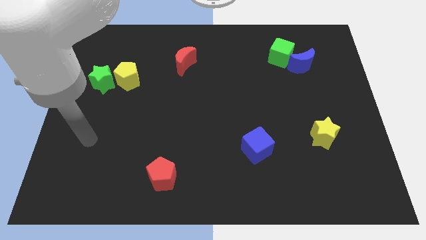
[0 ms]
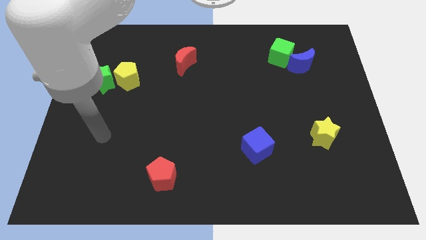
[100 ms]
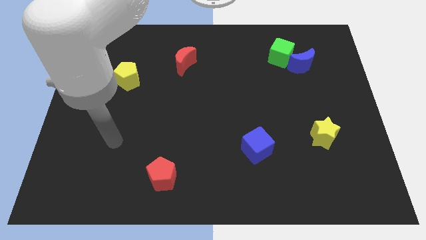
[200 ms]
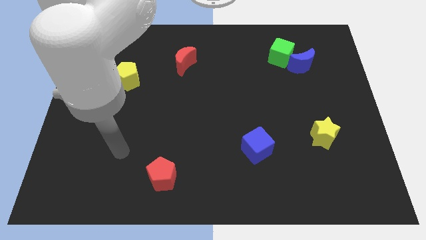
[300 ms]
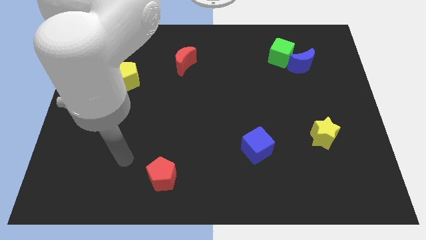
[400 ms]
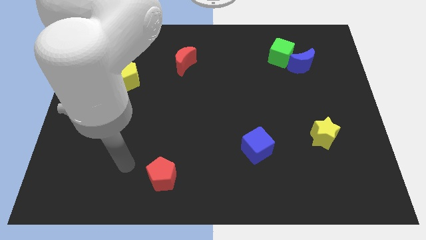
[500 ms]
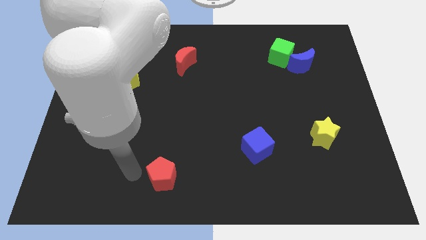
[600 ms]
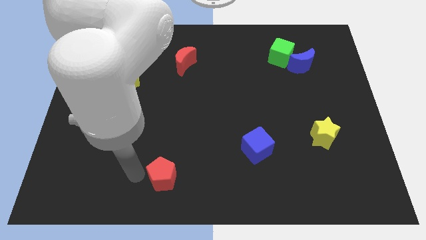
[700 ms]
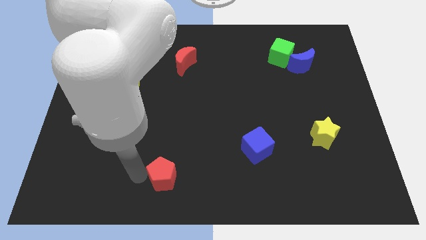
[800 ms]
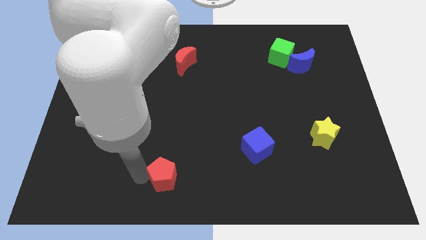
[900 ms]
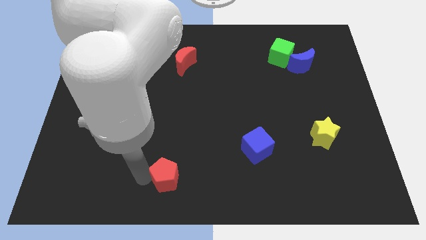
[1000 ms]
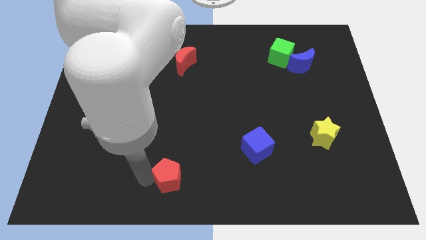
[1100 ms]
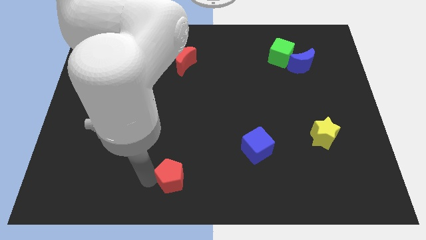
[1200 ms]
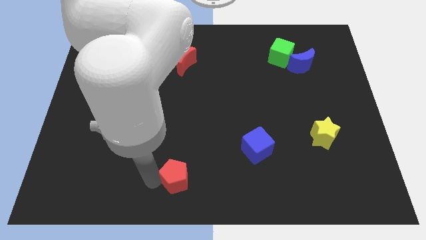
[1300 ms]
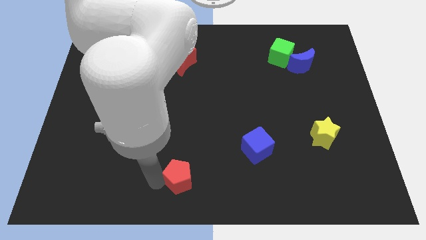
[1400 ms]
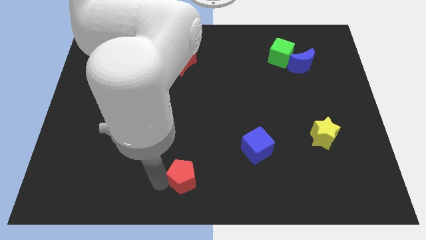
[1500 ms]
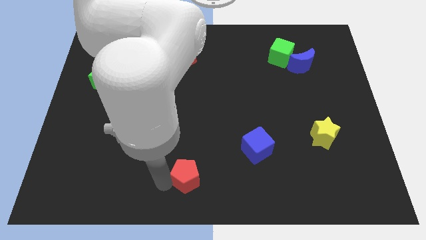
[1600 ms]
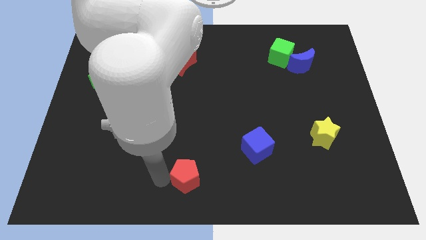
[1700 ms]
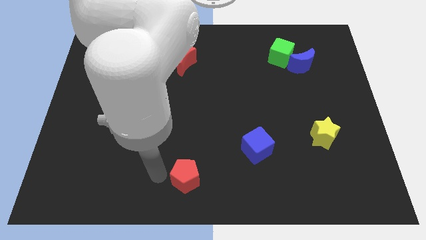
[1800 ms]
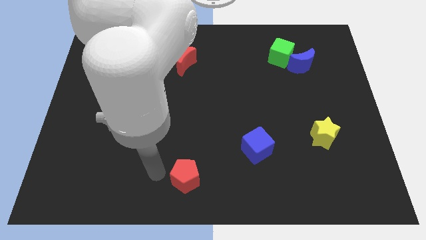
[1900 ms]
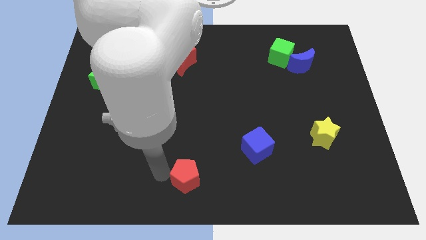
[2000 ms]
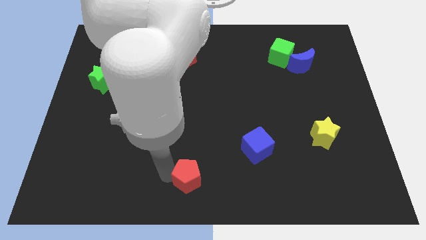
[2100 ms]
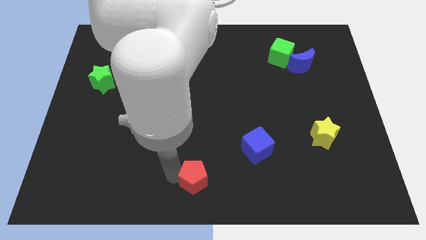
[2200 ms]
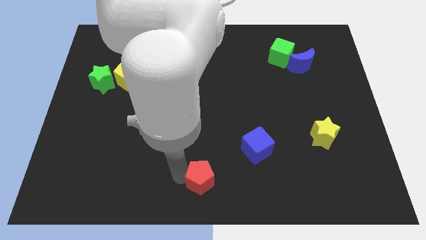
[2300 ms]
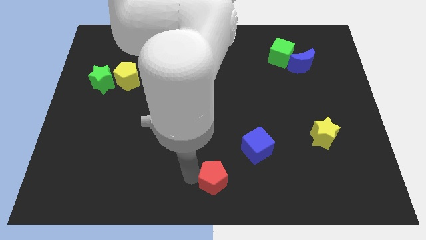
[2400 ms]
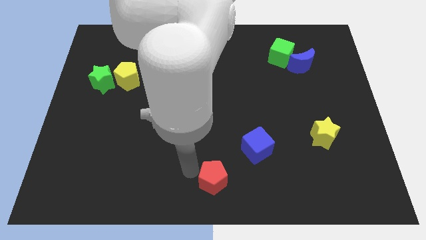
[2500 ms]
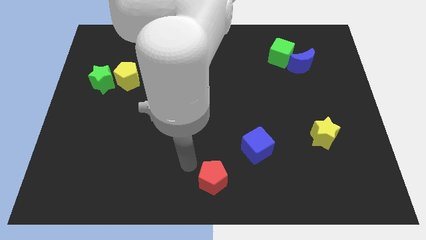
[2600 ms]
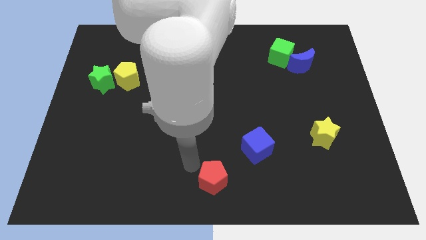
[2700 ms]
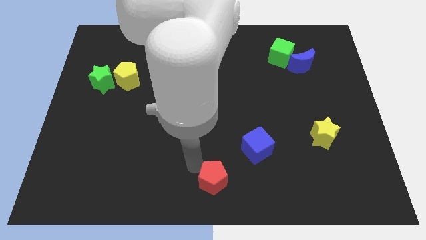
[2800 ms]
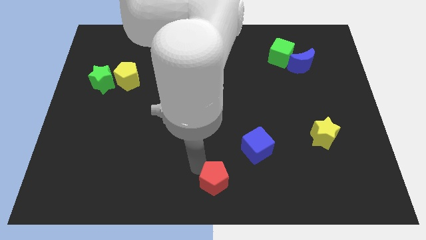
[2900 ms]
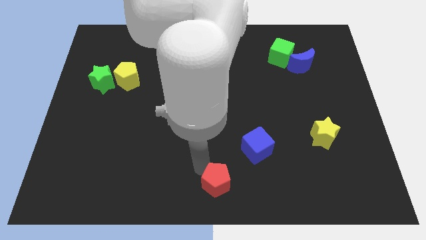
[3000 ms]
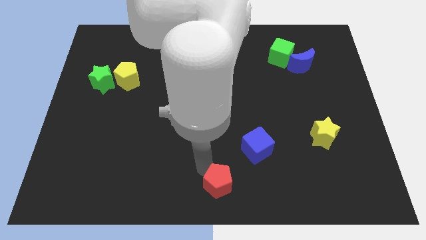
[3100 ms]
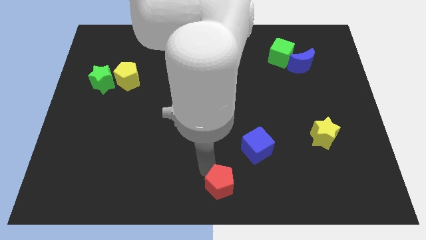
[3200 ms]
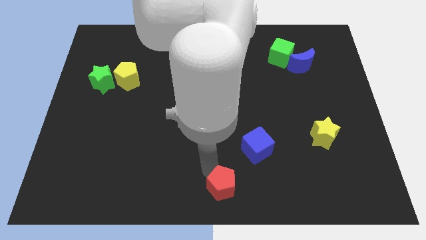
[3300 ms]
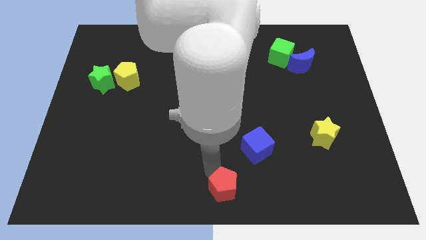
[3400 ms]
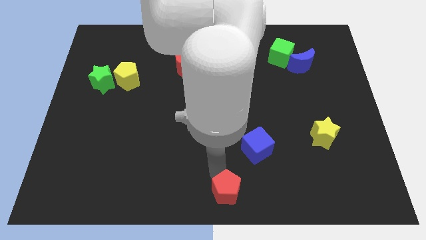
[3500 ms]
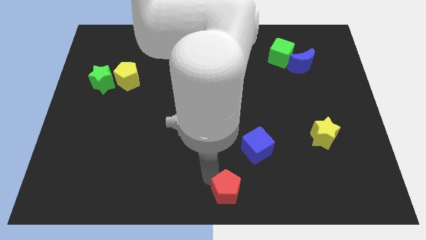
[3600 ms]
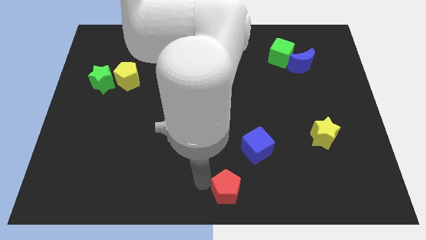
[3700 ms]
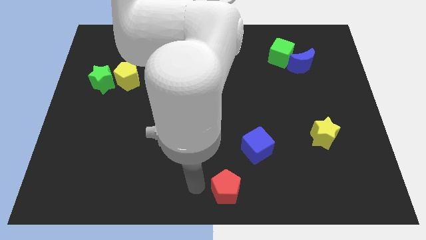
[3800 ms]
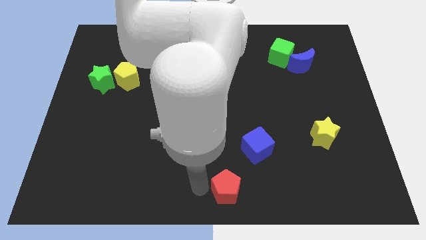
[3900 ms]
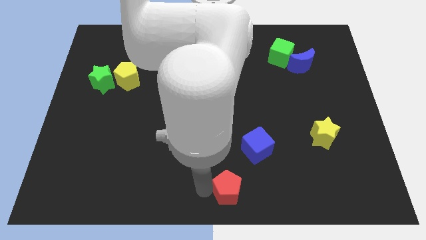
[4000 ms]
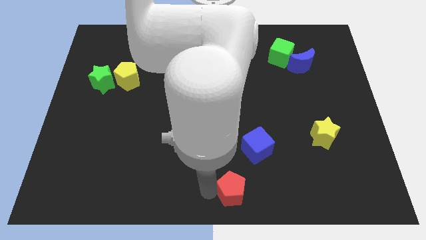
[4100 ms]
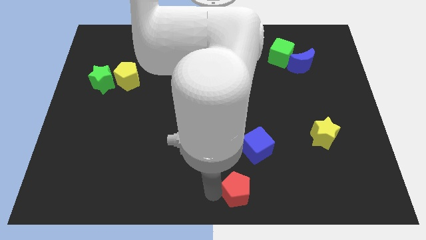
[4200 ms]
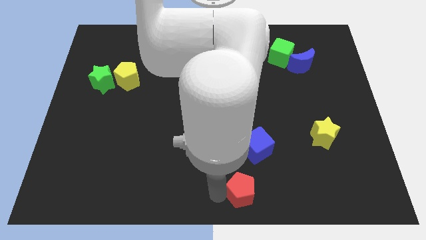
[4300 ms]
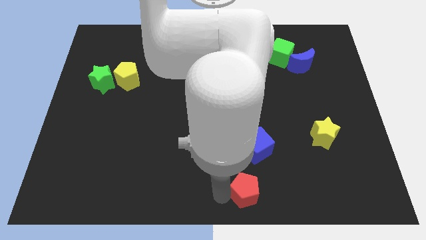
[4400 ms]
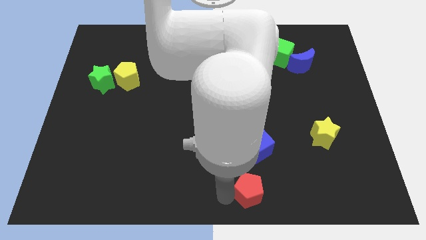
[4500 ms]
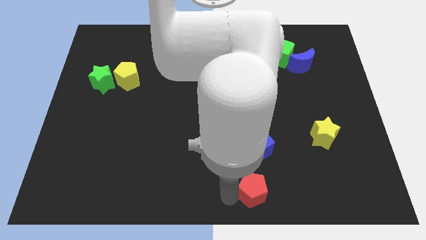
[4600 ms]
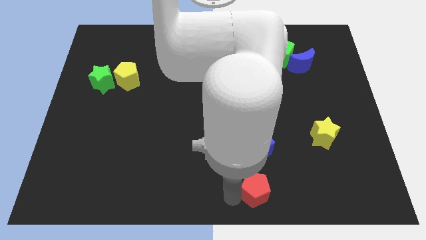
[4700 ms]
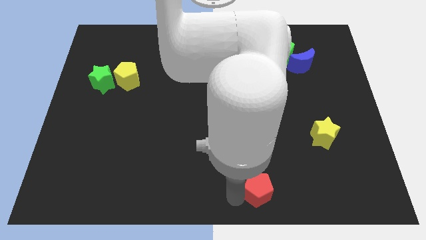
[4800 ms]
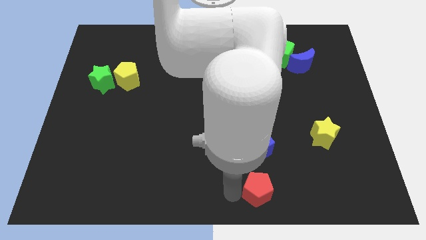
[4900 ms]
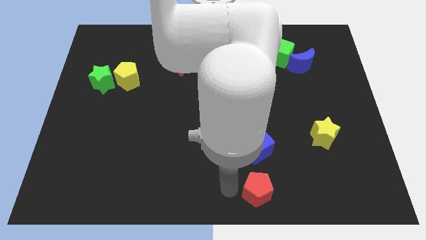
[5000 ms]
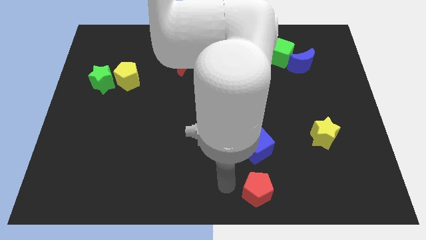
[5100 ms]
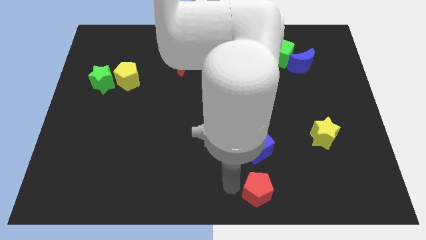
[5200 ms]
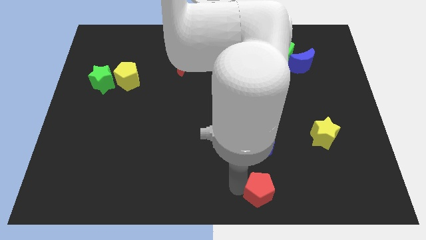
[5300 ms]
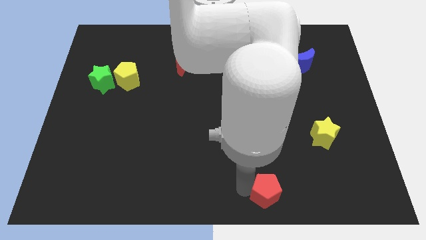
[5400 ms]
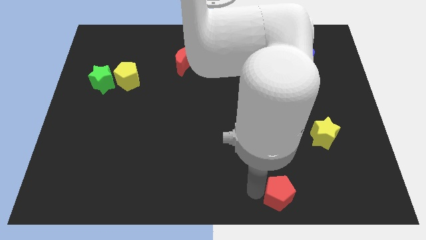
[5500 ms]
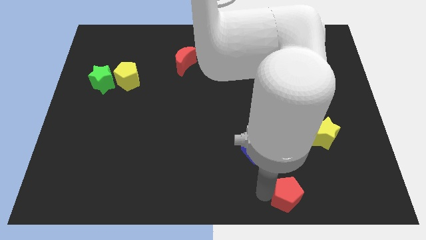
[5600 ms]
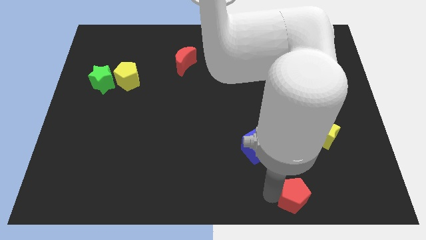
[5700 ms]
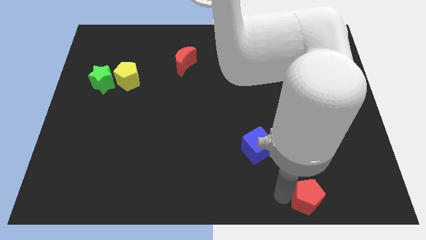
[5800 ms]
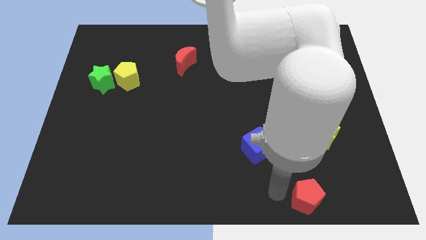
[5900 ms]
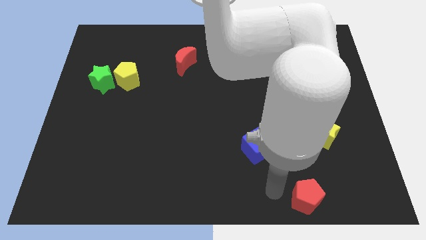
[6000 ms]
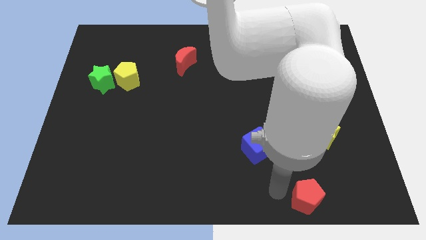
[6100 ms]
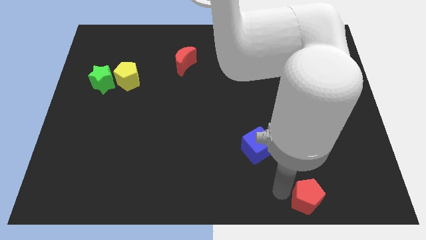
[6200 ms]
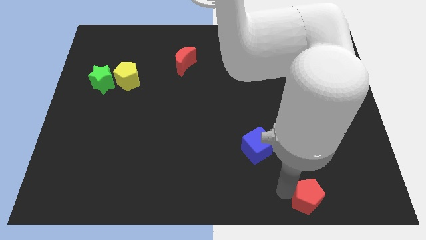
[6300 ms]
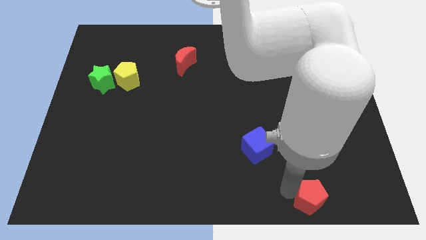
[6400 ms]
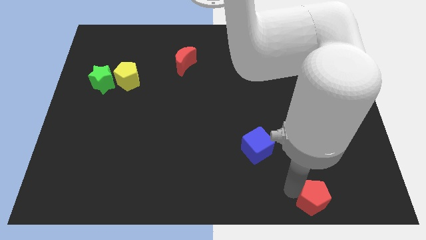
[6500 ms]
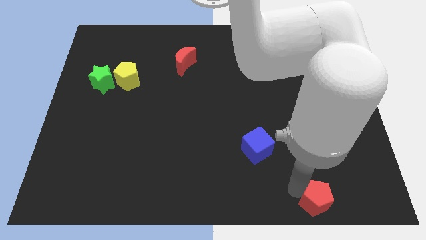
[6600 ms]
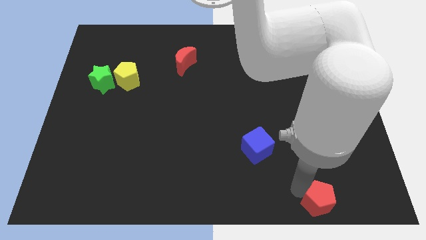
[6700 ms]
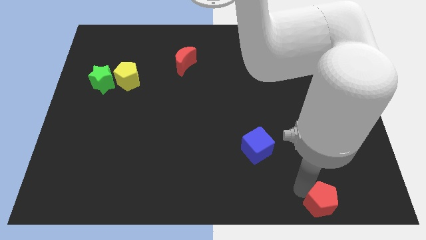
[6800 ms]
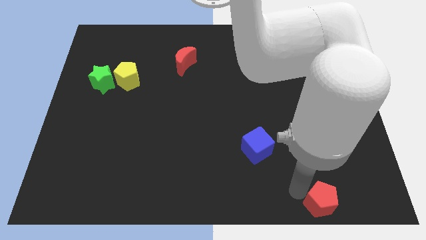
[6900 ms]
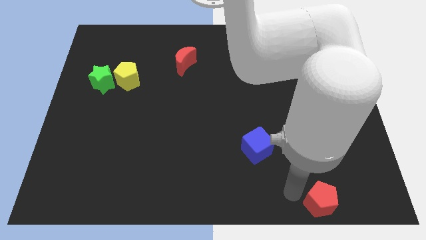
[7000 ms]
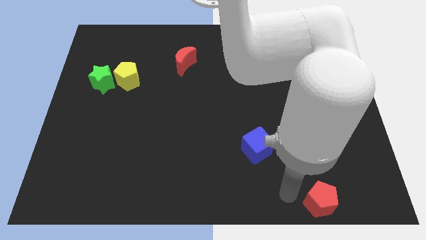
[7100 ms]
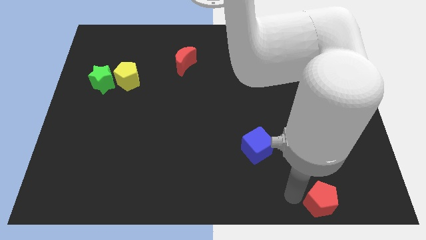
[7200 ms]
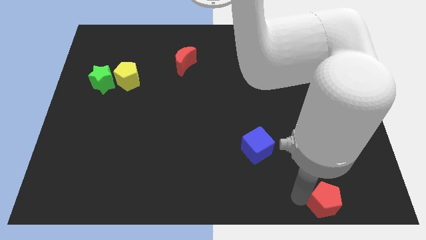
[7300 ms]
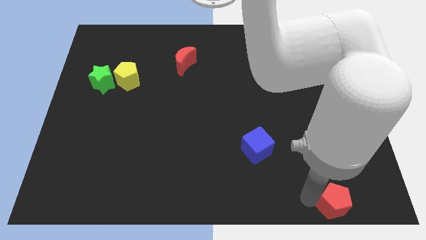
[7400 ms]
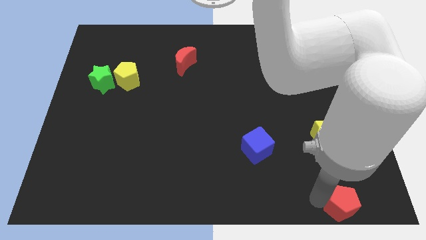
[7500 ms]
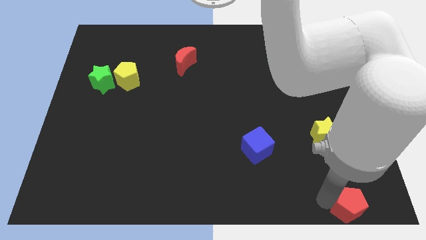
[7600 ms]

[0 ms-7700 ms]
move the red pentagon to the bottom right
